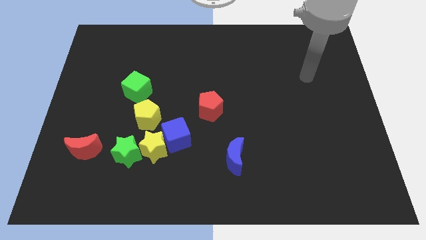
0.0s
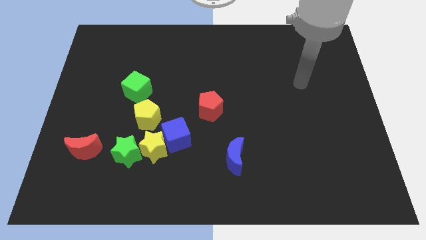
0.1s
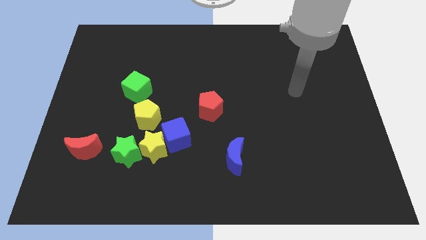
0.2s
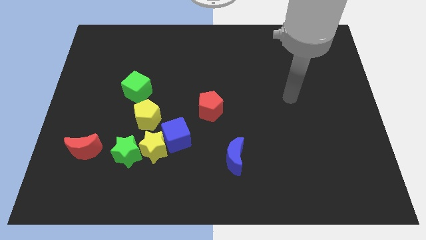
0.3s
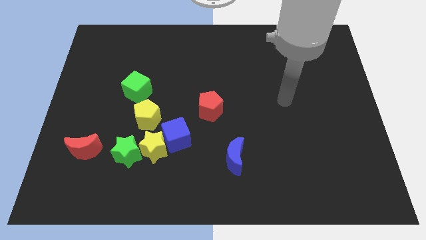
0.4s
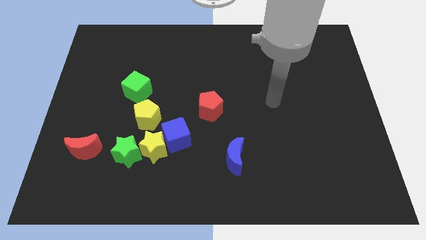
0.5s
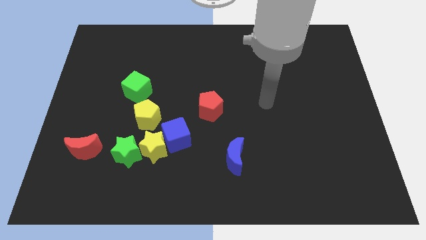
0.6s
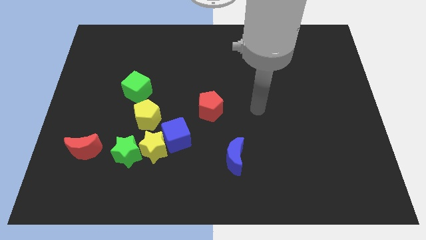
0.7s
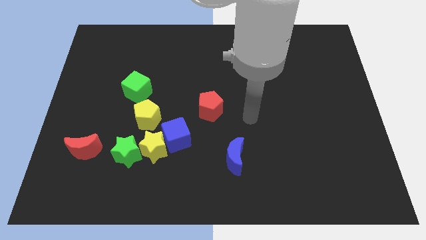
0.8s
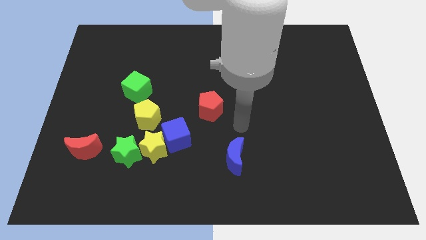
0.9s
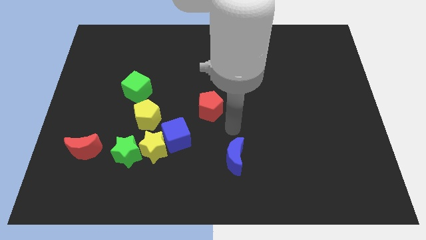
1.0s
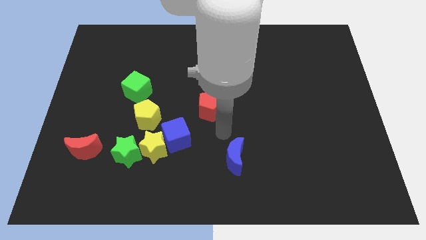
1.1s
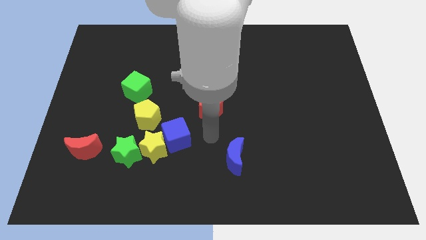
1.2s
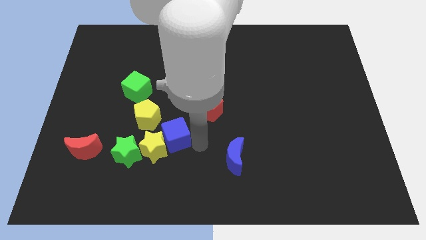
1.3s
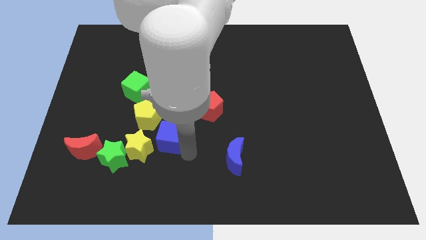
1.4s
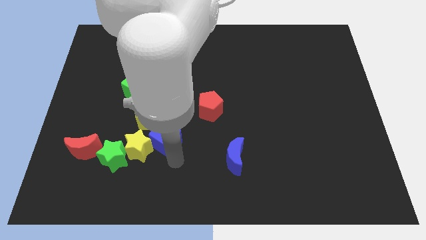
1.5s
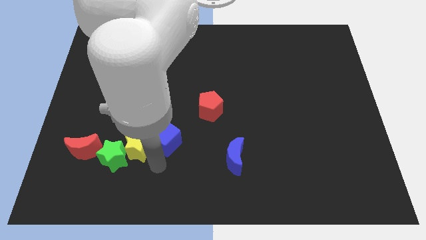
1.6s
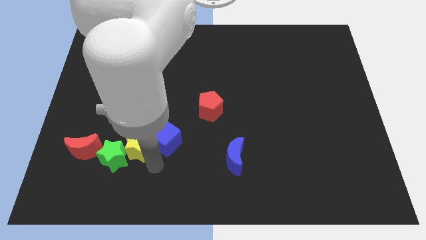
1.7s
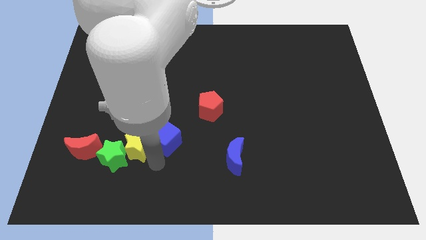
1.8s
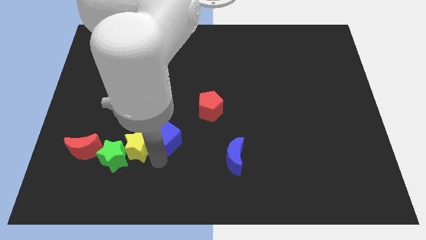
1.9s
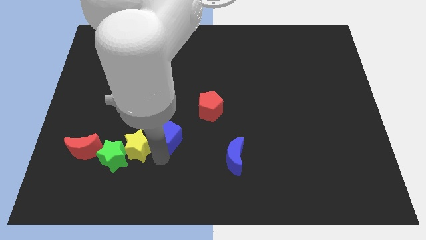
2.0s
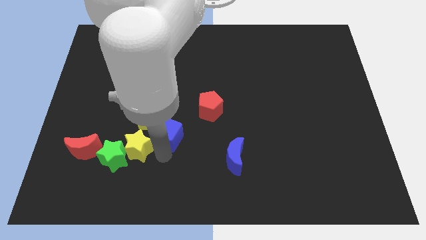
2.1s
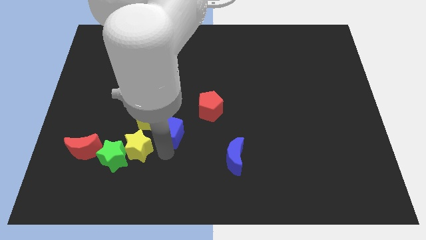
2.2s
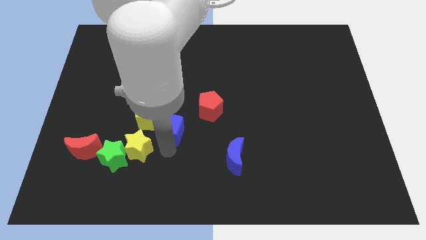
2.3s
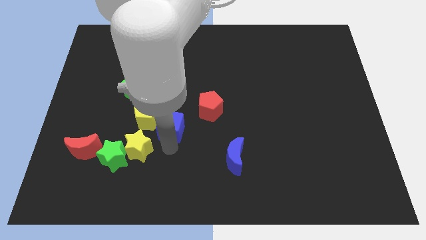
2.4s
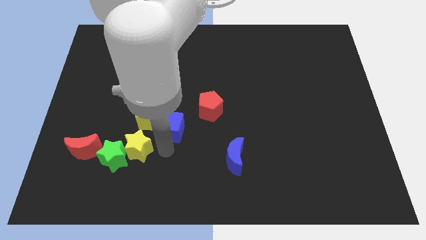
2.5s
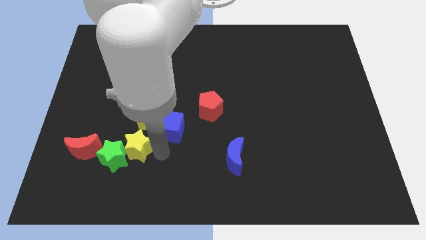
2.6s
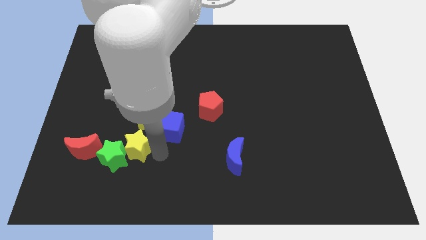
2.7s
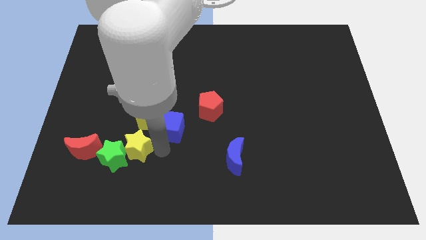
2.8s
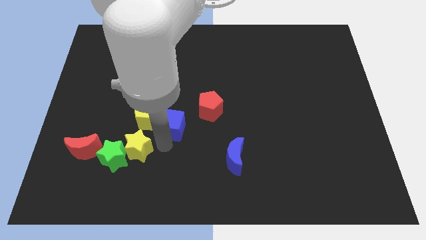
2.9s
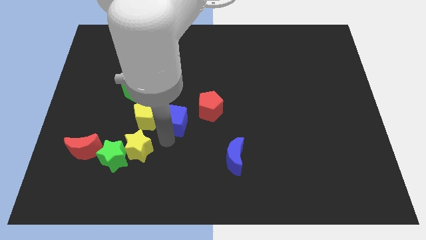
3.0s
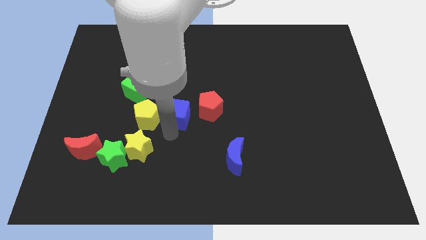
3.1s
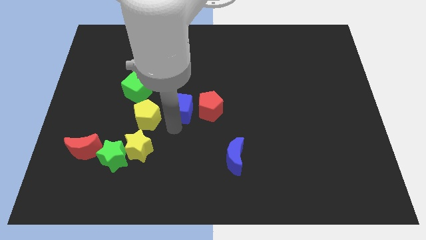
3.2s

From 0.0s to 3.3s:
push the blue cube up slightly

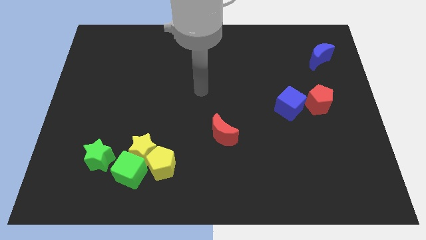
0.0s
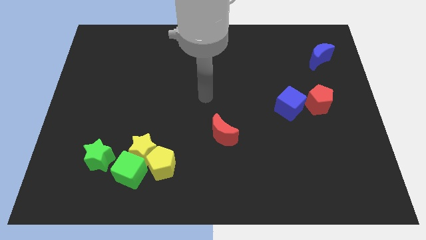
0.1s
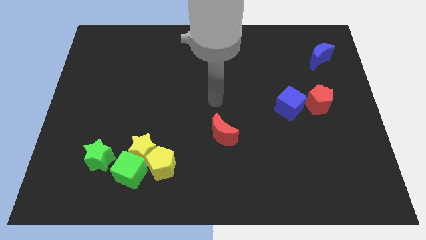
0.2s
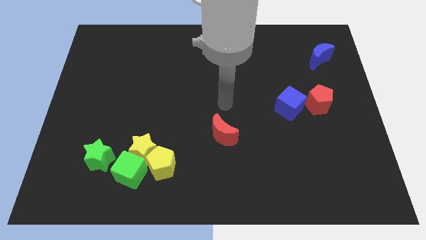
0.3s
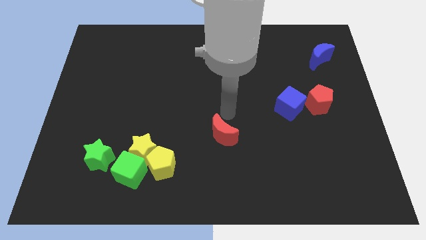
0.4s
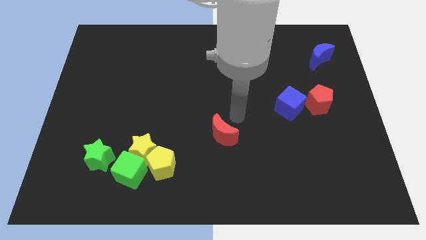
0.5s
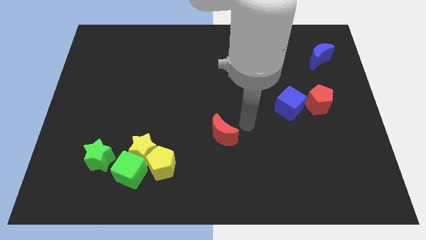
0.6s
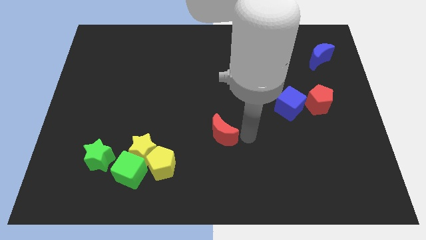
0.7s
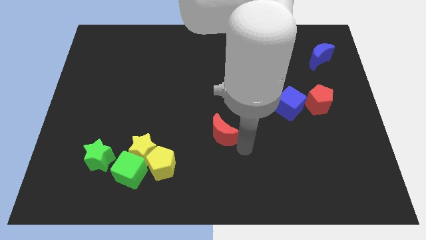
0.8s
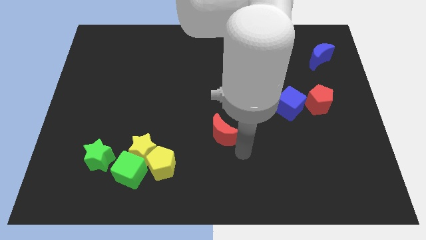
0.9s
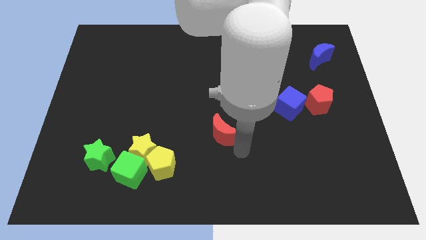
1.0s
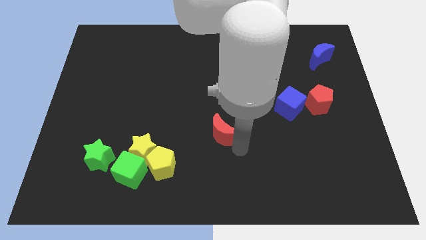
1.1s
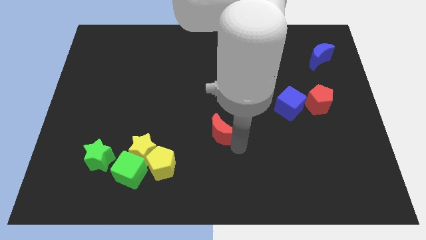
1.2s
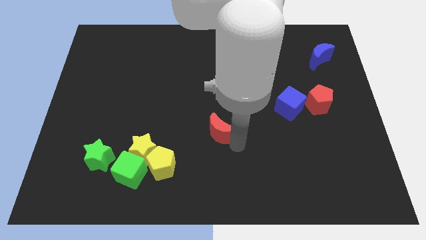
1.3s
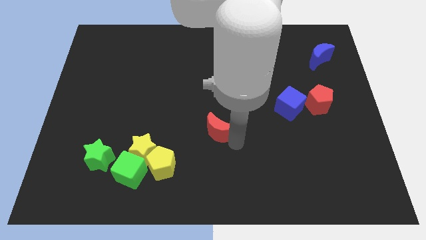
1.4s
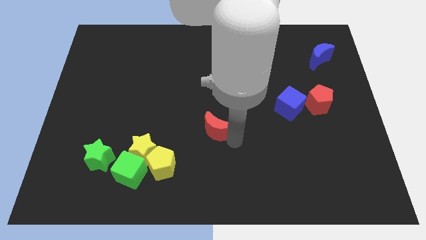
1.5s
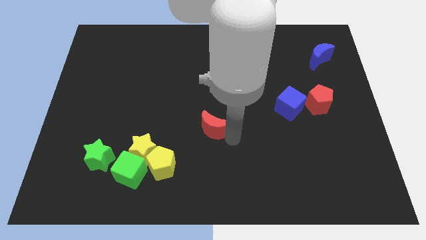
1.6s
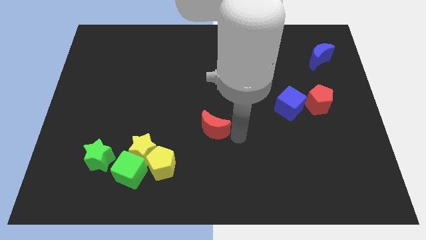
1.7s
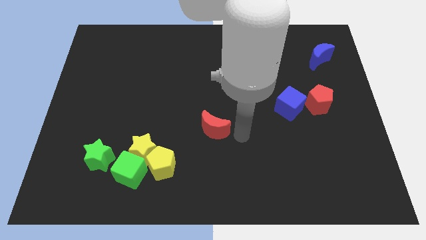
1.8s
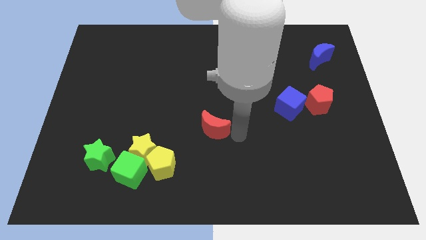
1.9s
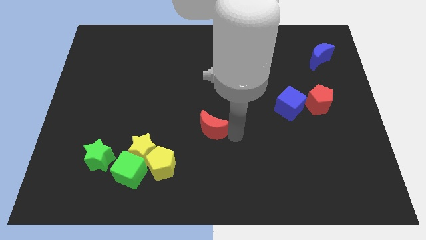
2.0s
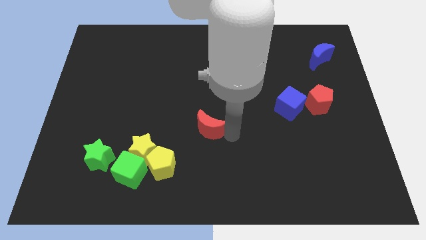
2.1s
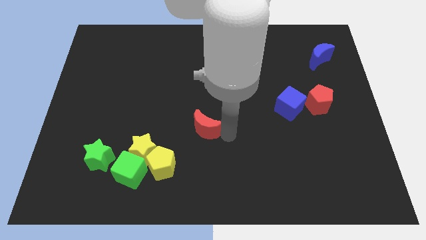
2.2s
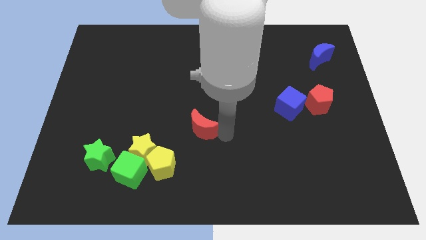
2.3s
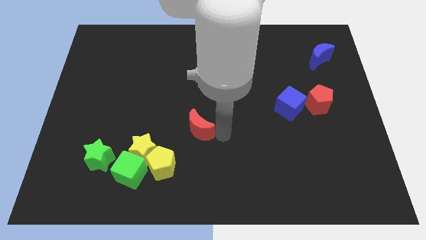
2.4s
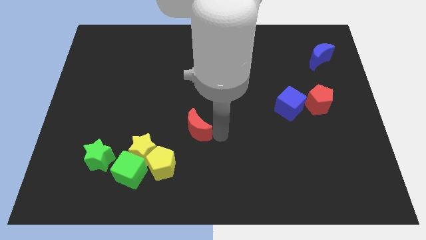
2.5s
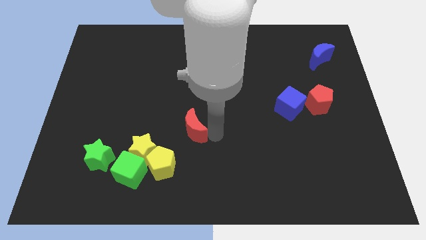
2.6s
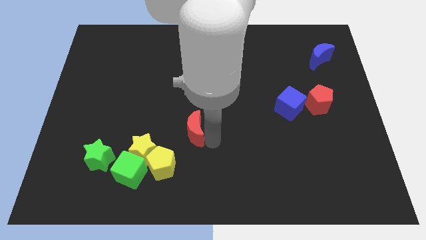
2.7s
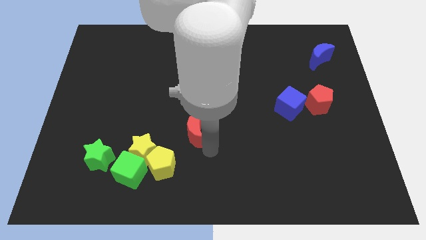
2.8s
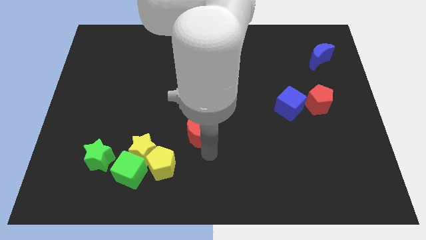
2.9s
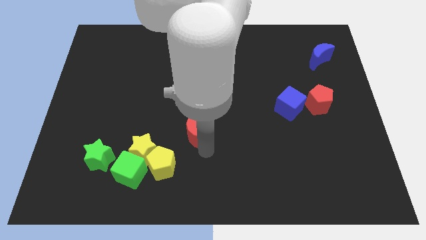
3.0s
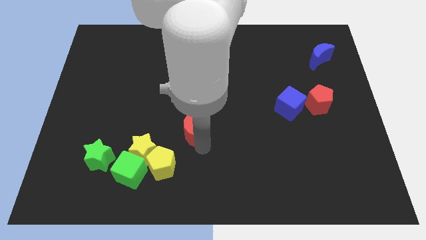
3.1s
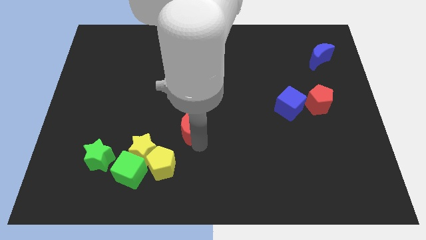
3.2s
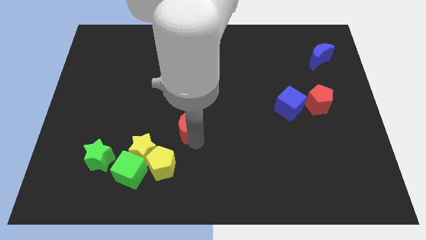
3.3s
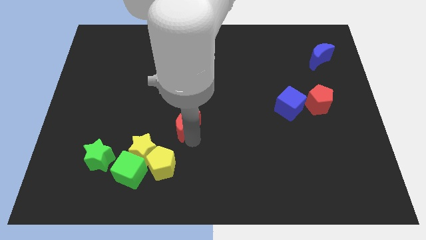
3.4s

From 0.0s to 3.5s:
push the red moon diagonally upwards and left a little

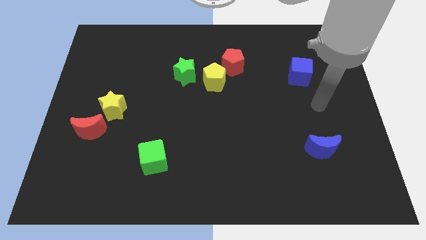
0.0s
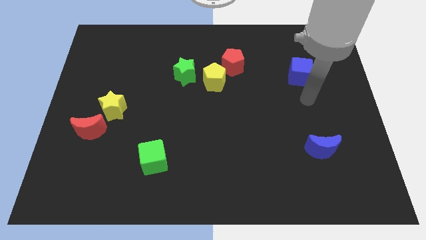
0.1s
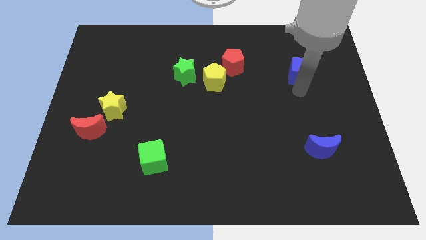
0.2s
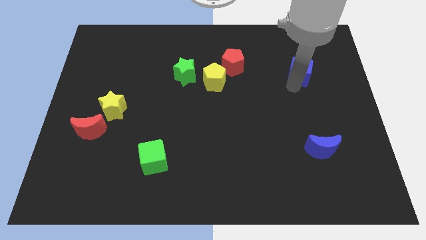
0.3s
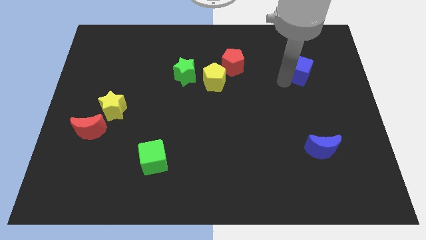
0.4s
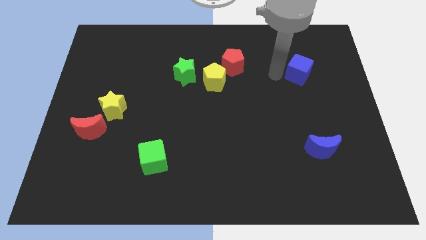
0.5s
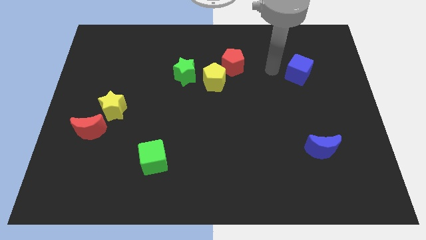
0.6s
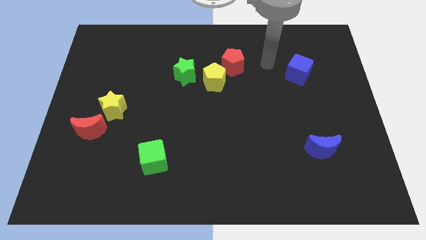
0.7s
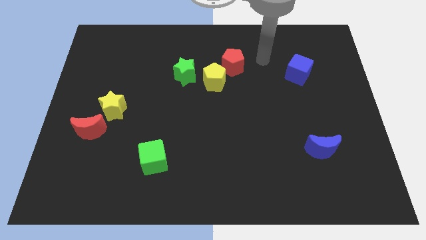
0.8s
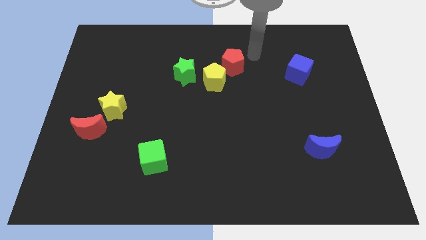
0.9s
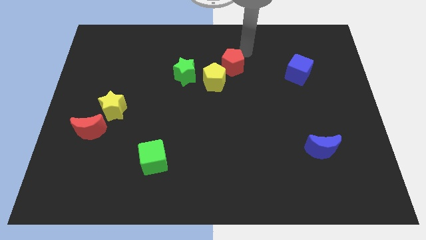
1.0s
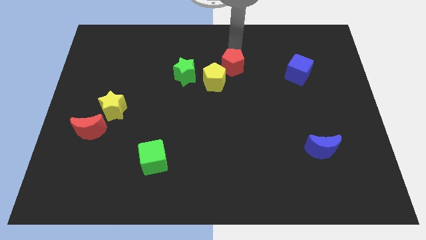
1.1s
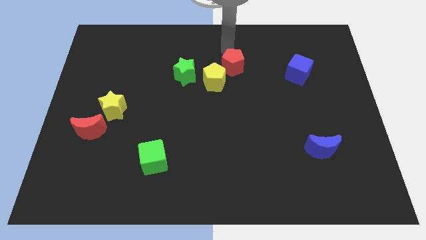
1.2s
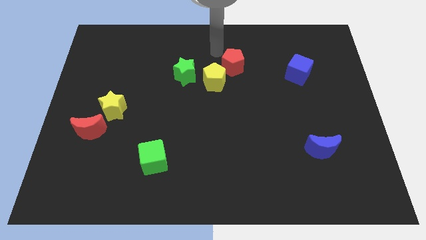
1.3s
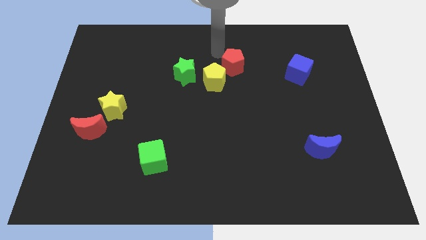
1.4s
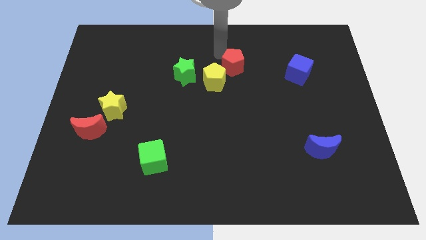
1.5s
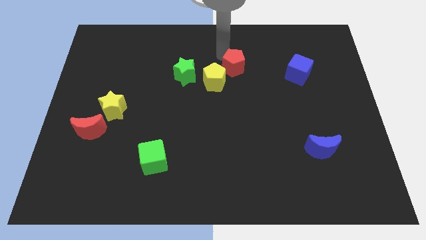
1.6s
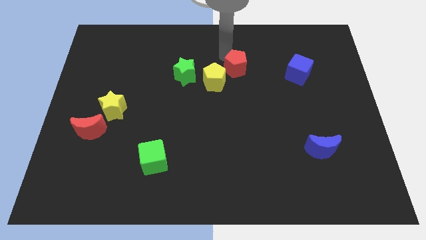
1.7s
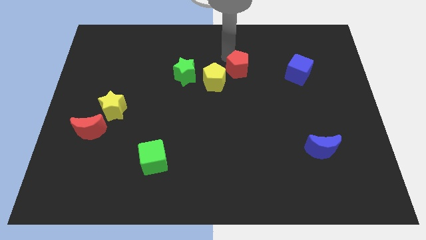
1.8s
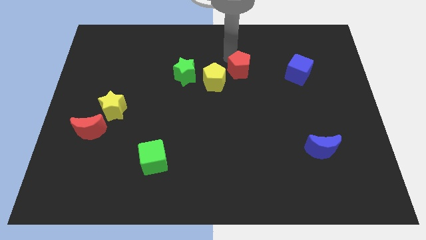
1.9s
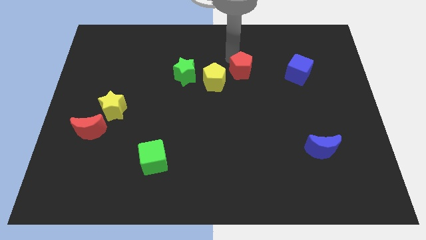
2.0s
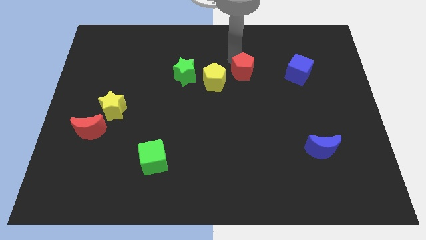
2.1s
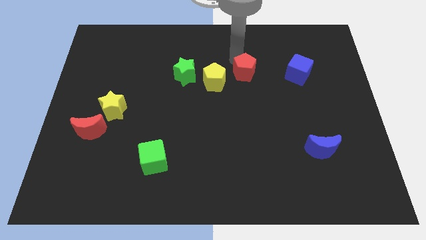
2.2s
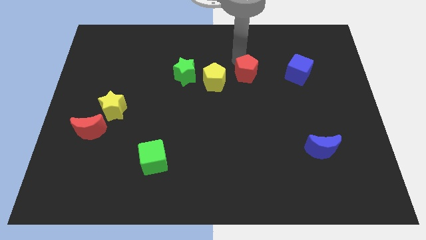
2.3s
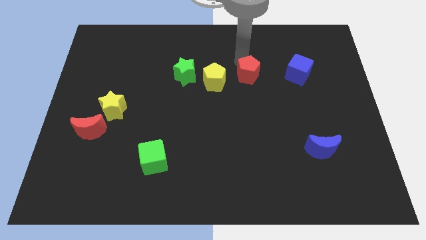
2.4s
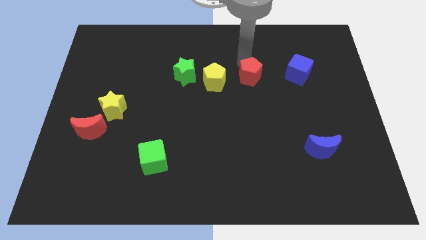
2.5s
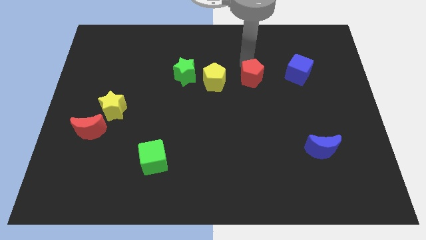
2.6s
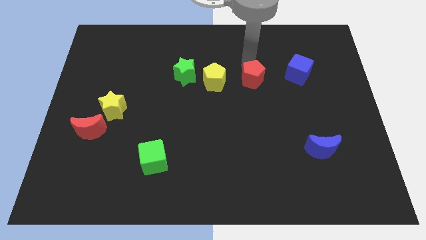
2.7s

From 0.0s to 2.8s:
slide the red pentagon somewhat diagonally down and to the right
